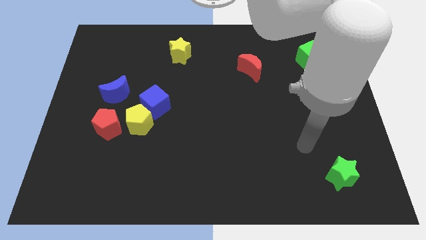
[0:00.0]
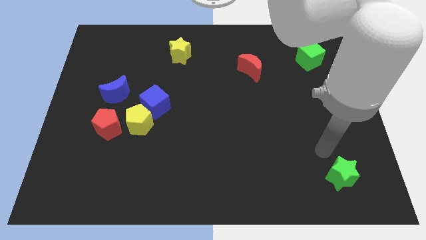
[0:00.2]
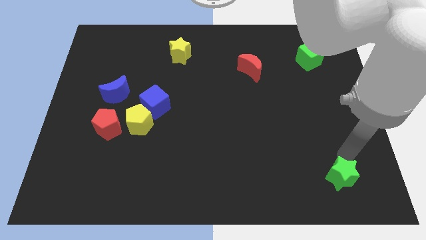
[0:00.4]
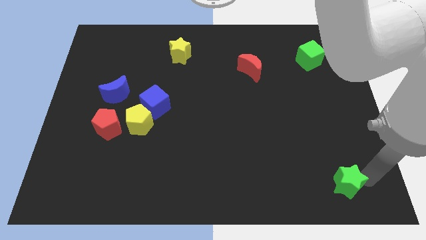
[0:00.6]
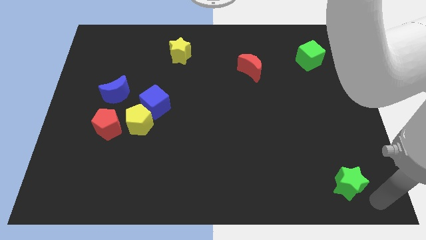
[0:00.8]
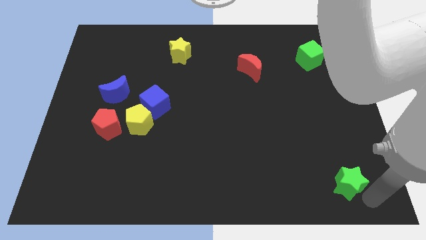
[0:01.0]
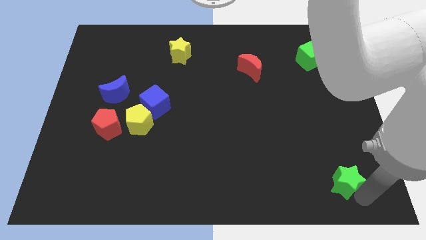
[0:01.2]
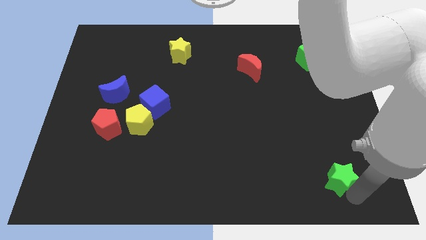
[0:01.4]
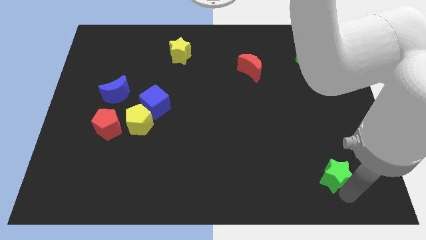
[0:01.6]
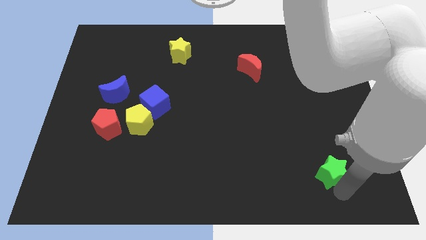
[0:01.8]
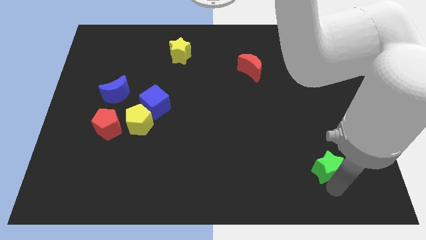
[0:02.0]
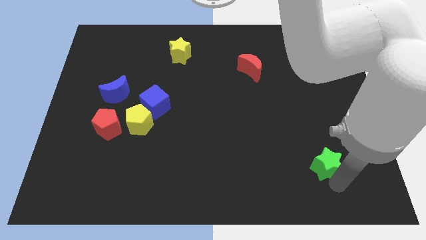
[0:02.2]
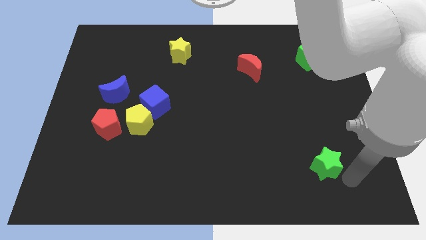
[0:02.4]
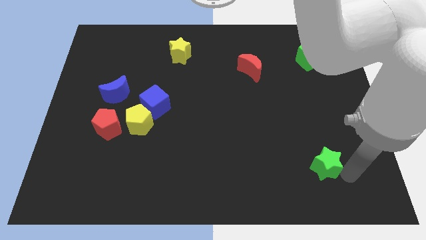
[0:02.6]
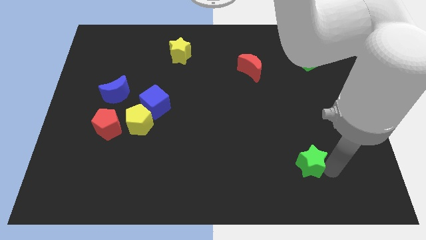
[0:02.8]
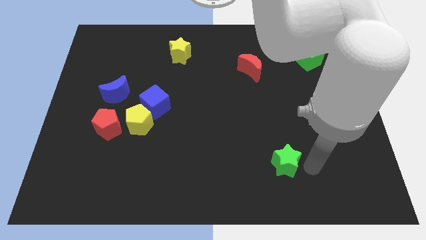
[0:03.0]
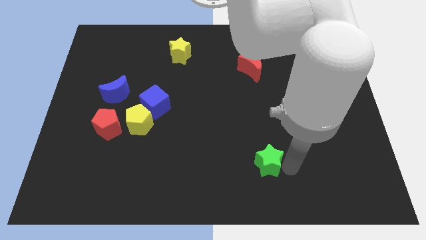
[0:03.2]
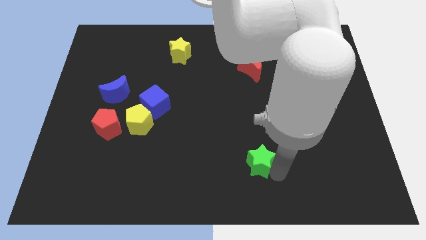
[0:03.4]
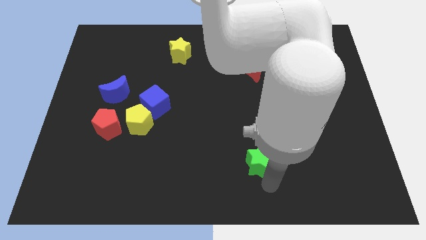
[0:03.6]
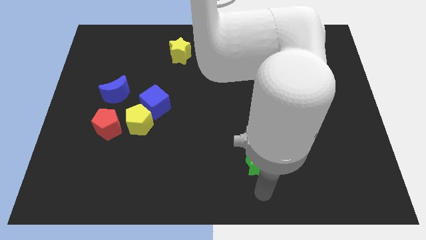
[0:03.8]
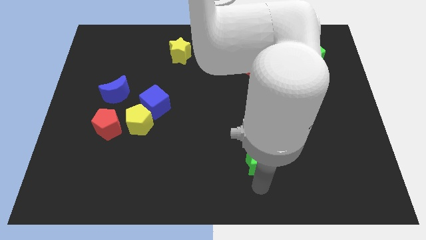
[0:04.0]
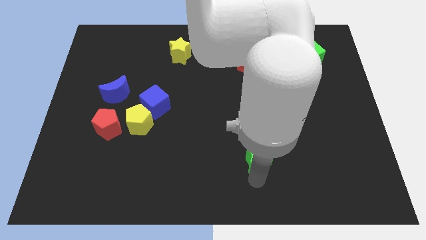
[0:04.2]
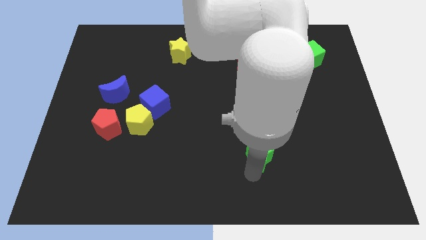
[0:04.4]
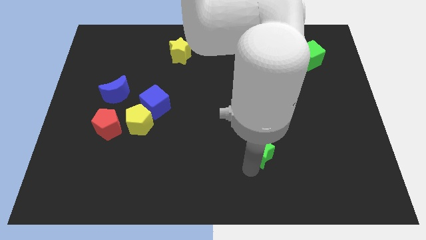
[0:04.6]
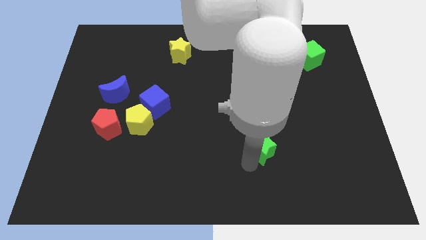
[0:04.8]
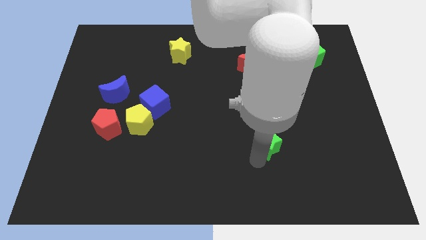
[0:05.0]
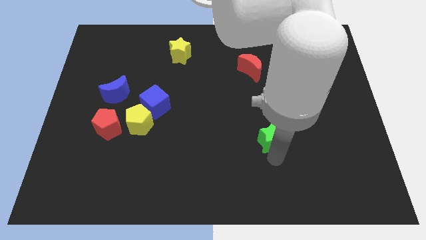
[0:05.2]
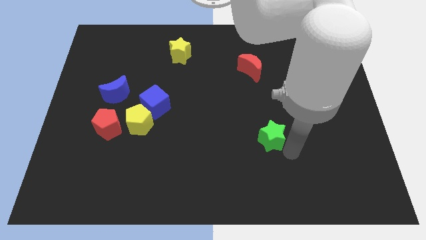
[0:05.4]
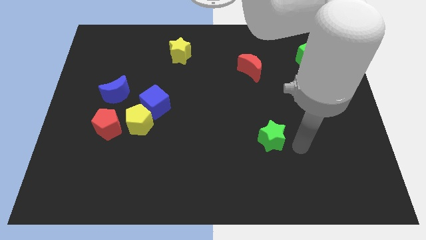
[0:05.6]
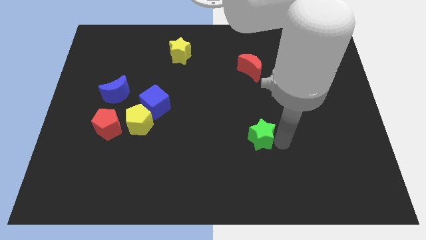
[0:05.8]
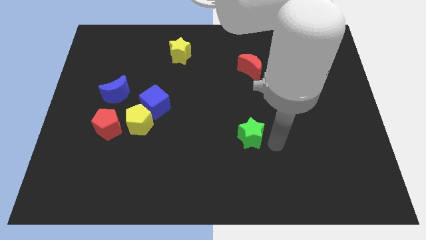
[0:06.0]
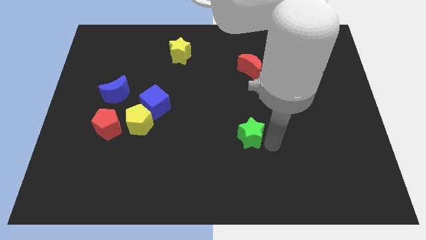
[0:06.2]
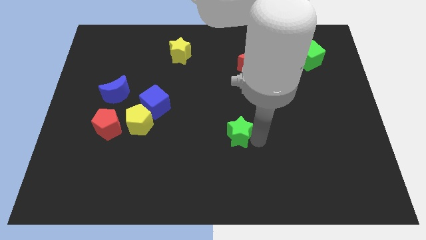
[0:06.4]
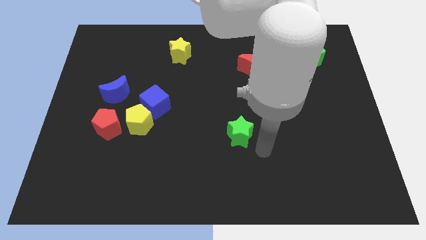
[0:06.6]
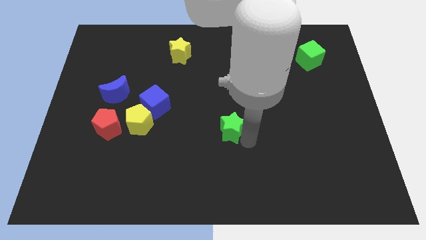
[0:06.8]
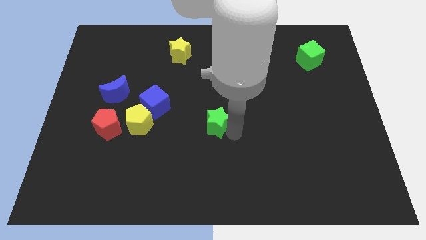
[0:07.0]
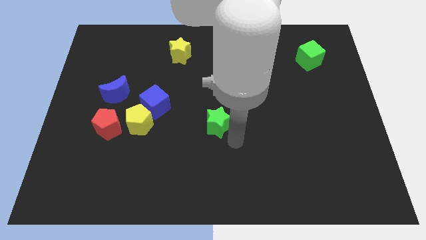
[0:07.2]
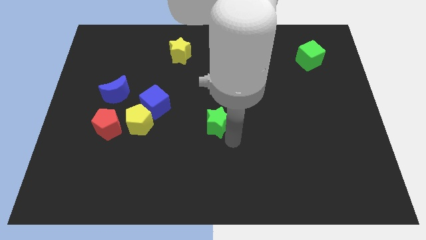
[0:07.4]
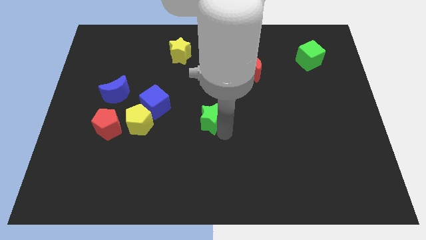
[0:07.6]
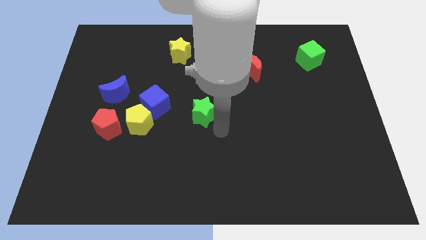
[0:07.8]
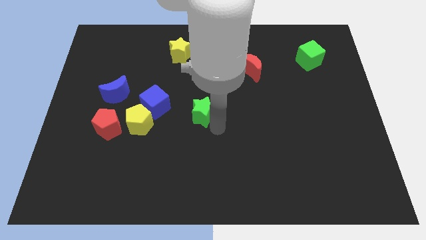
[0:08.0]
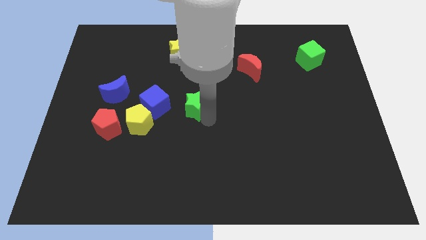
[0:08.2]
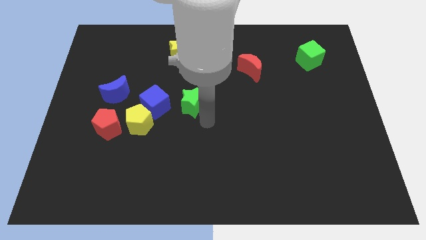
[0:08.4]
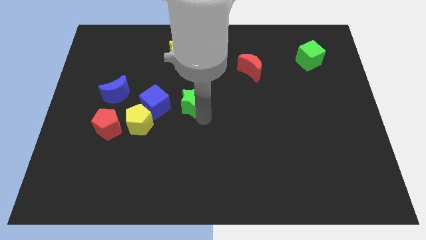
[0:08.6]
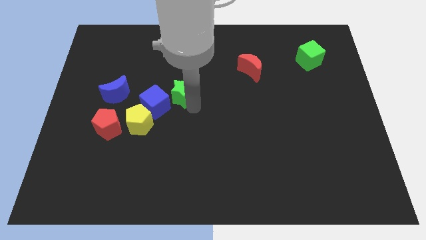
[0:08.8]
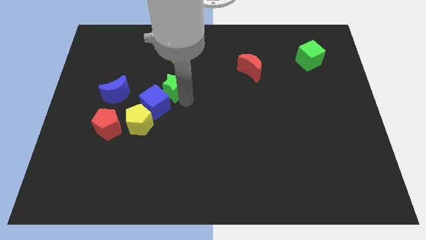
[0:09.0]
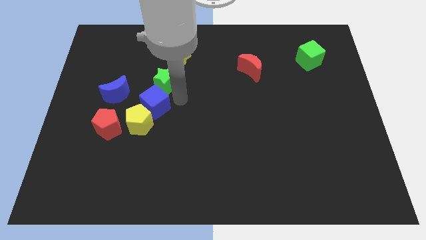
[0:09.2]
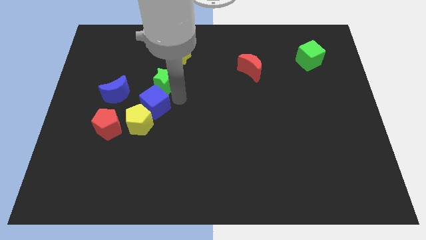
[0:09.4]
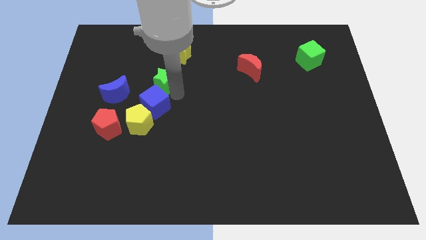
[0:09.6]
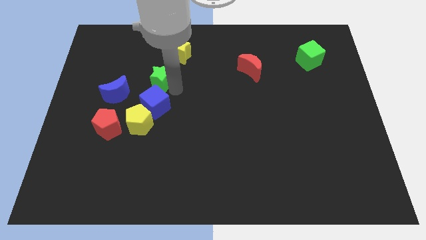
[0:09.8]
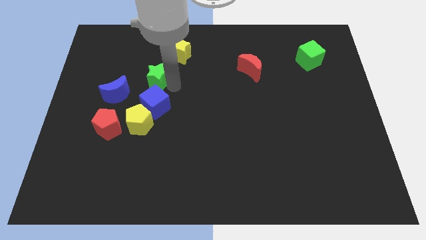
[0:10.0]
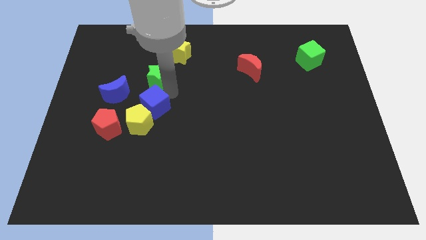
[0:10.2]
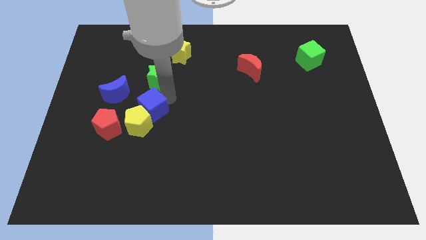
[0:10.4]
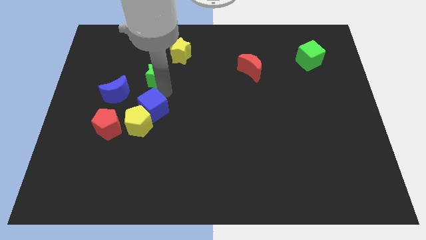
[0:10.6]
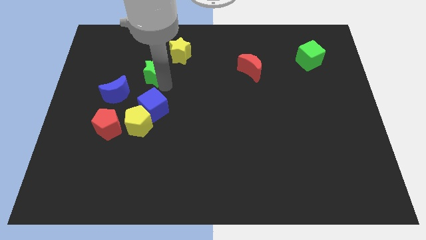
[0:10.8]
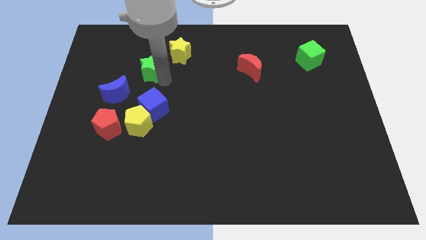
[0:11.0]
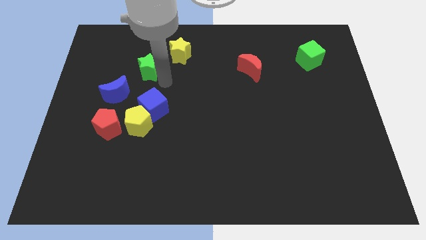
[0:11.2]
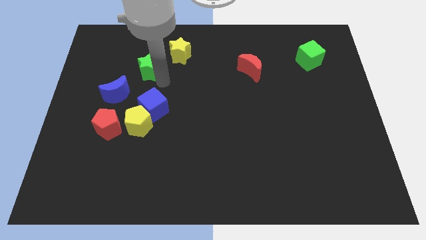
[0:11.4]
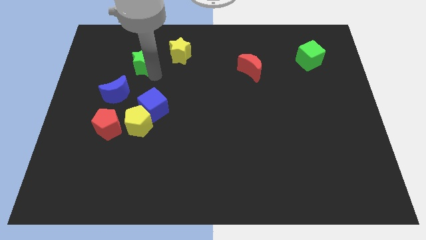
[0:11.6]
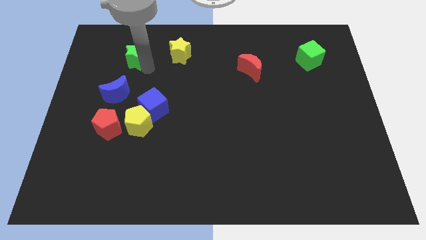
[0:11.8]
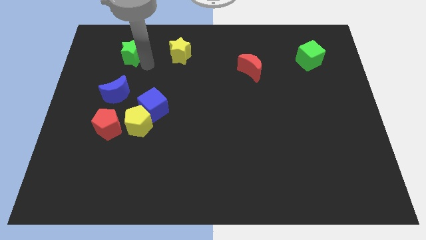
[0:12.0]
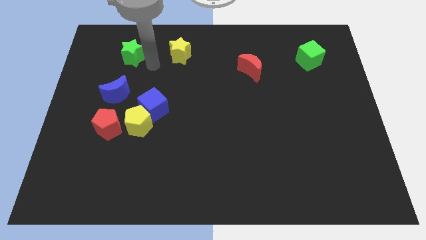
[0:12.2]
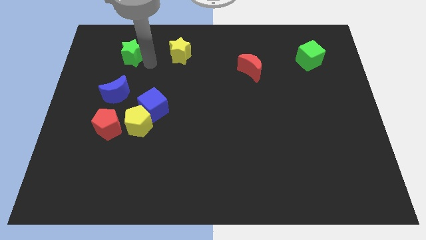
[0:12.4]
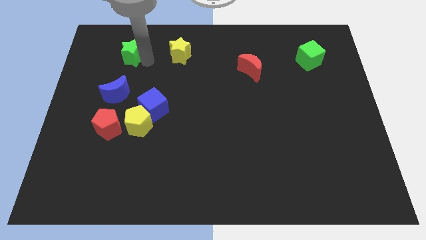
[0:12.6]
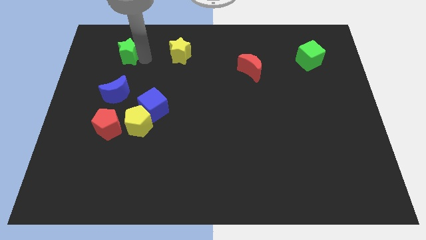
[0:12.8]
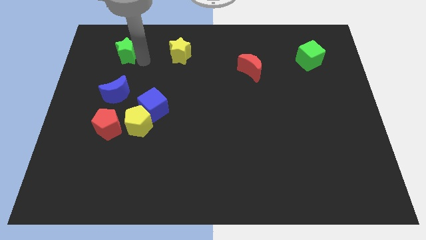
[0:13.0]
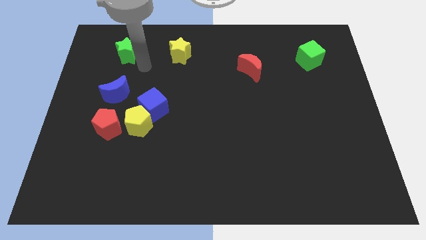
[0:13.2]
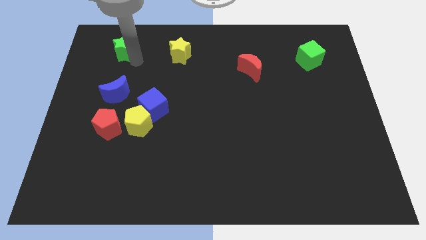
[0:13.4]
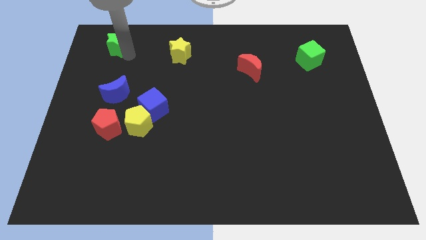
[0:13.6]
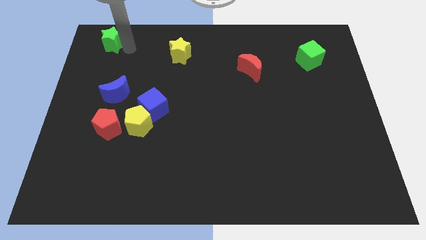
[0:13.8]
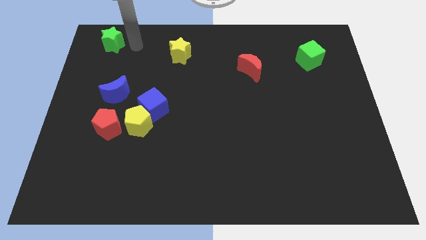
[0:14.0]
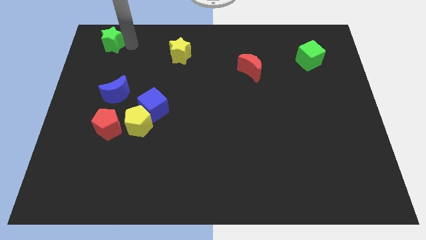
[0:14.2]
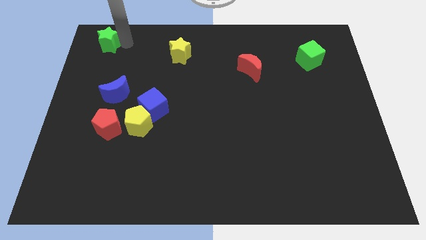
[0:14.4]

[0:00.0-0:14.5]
slide the green star to the top left corner
